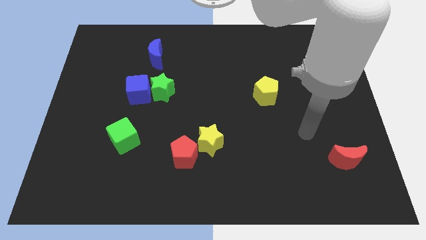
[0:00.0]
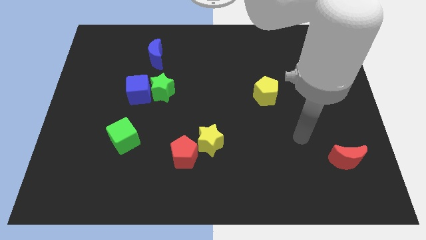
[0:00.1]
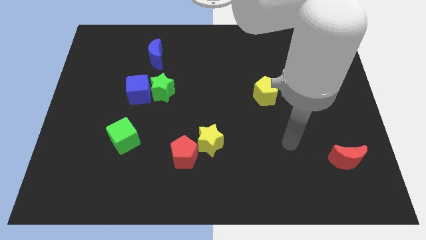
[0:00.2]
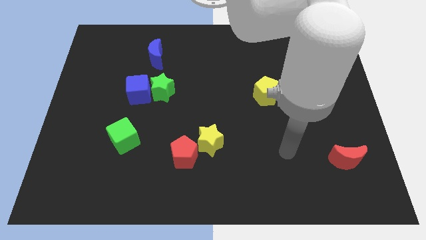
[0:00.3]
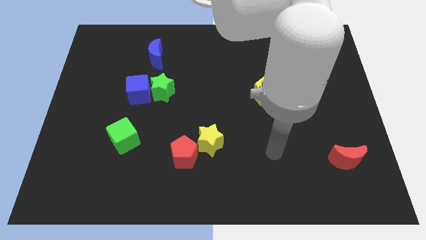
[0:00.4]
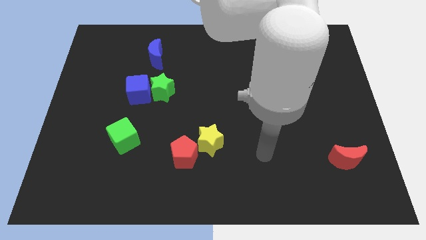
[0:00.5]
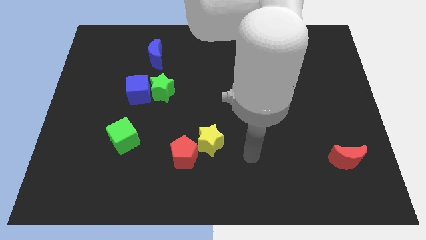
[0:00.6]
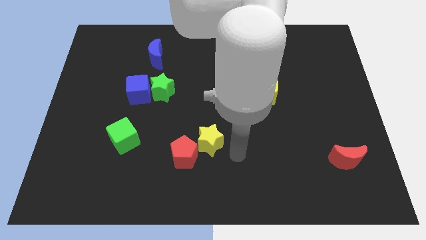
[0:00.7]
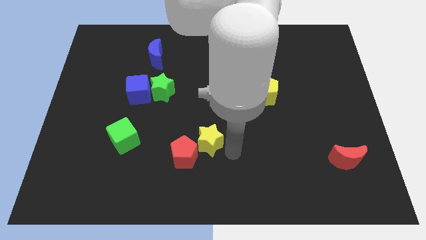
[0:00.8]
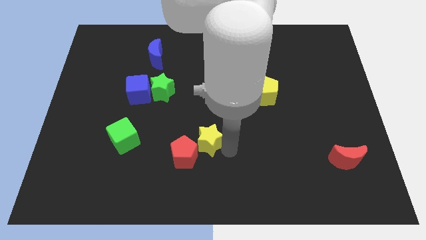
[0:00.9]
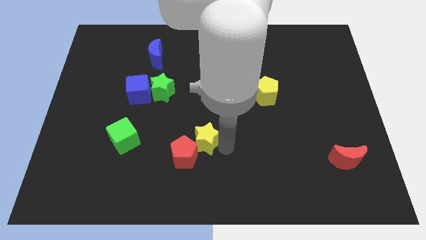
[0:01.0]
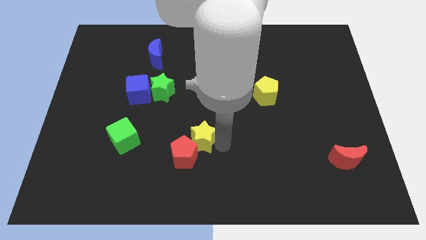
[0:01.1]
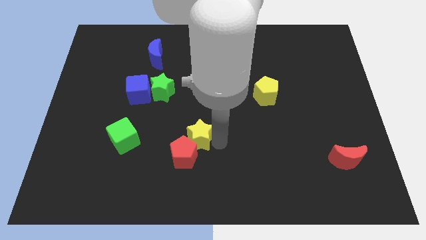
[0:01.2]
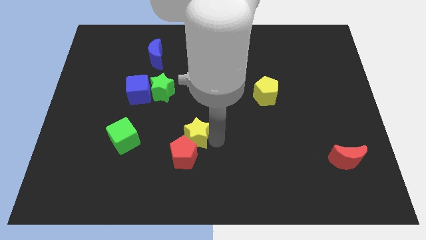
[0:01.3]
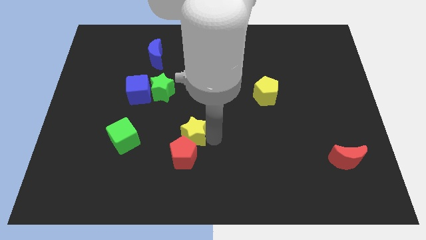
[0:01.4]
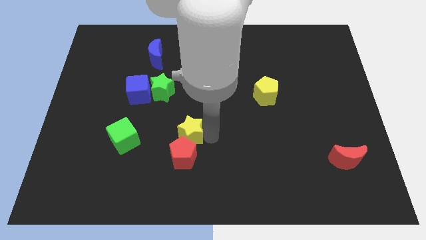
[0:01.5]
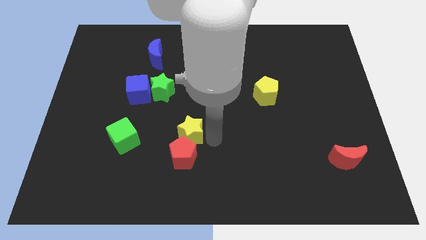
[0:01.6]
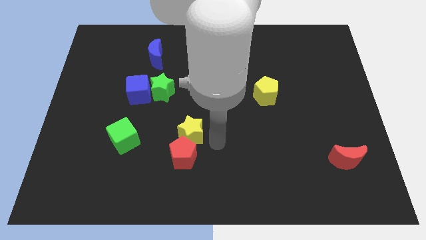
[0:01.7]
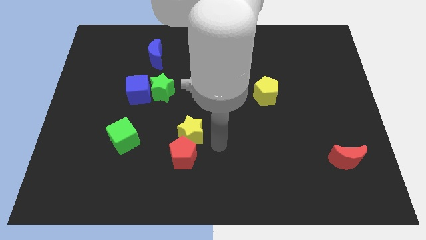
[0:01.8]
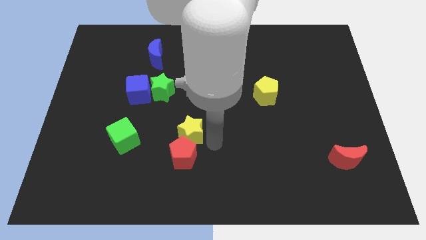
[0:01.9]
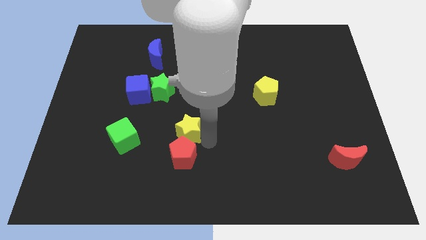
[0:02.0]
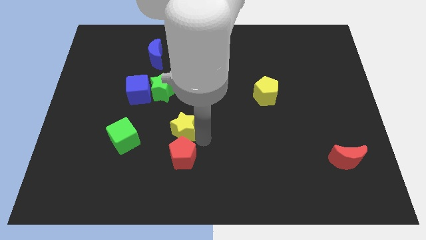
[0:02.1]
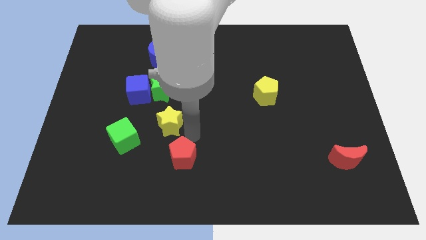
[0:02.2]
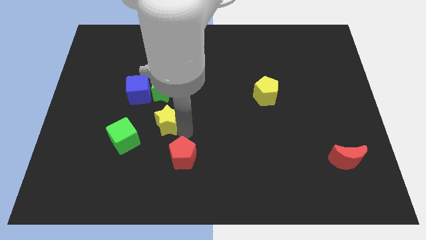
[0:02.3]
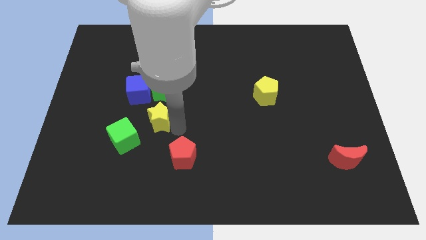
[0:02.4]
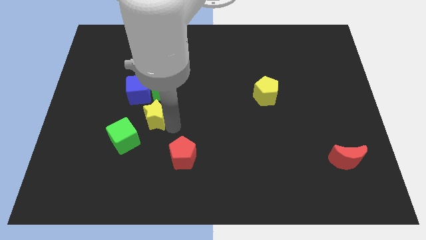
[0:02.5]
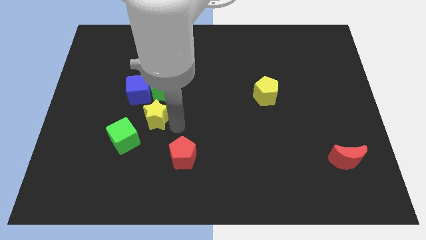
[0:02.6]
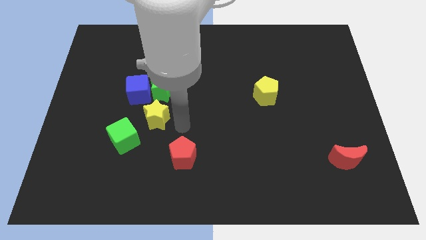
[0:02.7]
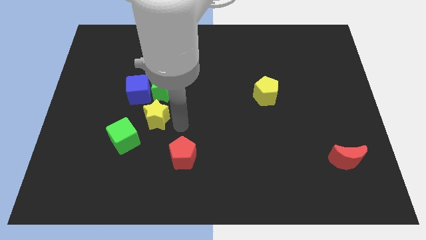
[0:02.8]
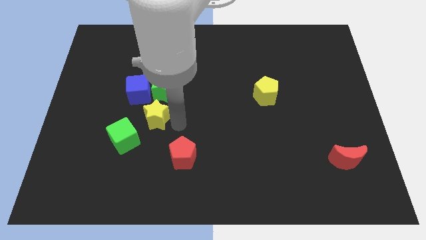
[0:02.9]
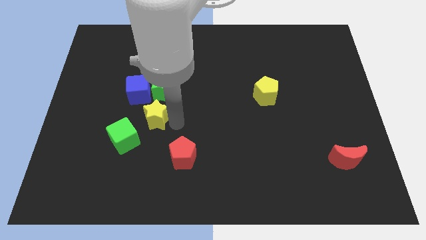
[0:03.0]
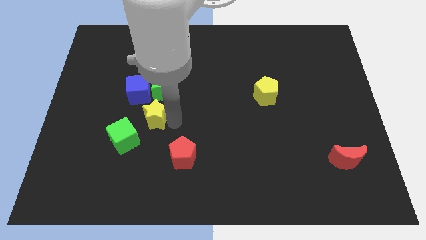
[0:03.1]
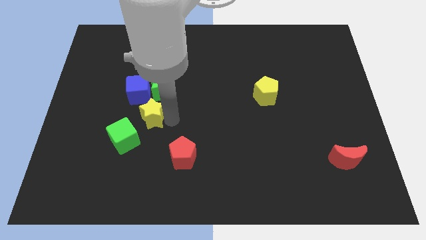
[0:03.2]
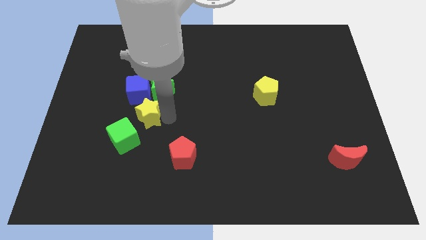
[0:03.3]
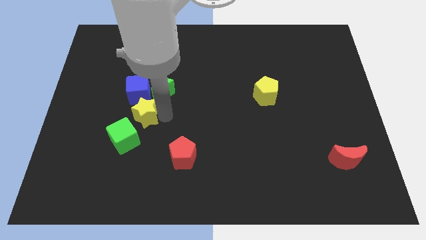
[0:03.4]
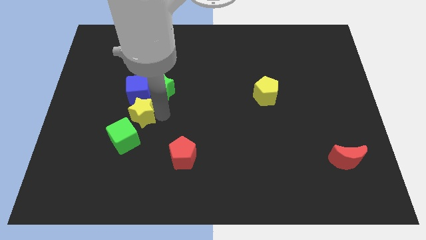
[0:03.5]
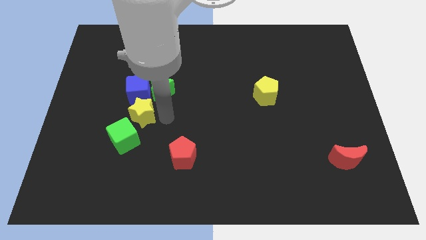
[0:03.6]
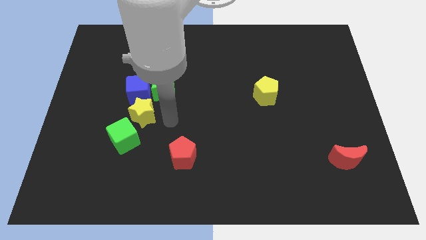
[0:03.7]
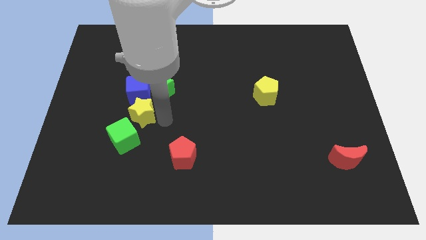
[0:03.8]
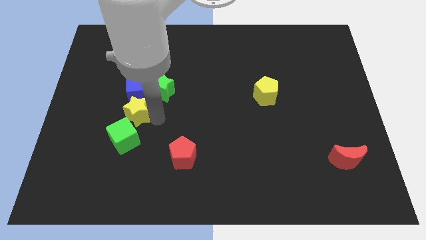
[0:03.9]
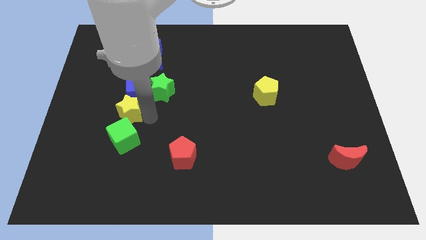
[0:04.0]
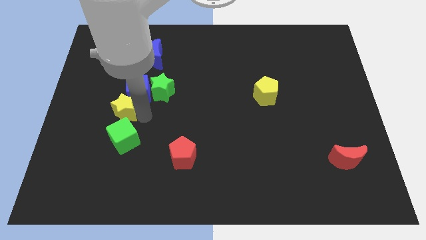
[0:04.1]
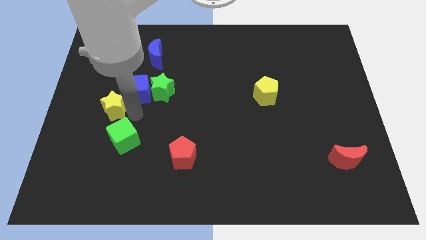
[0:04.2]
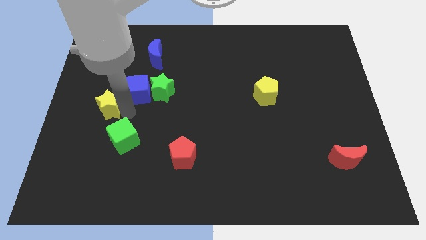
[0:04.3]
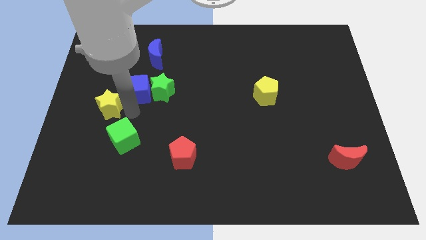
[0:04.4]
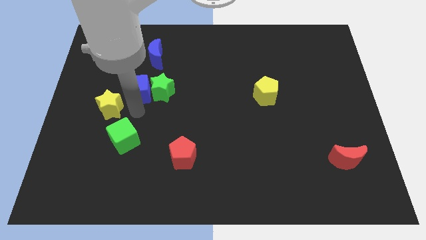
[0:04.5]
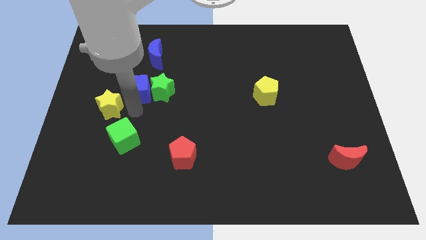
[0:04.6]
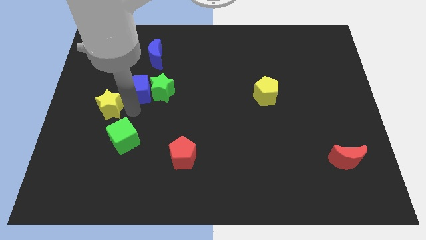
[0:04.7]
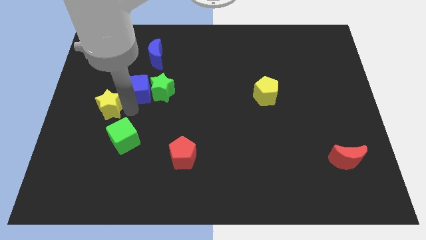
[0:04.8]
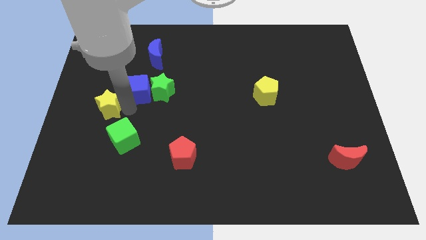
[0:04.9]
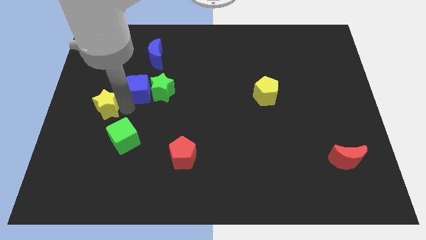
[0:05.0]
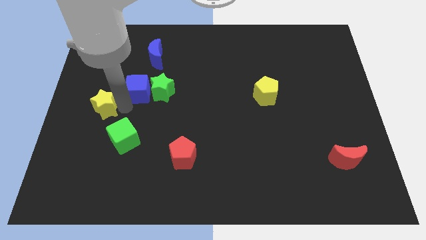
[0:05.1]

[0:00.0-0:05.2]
push the yellow star to the center left

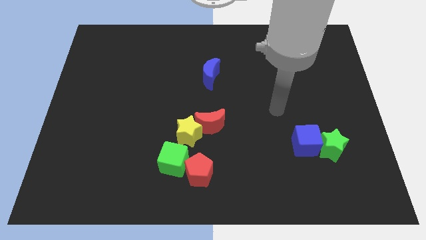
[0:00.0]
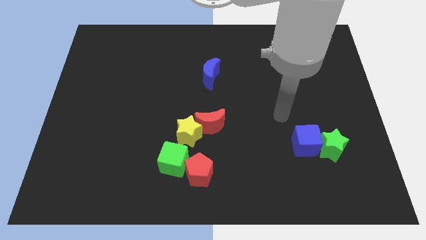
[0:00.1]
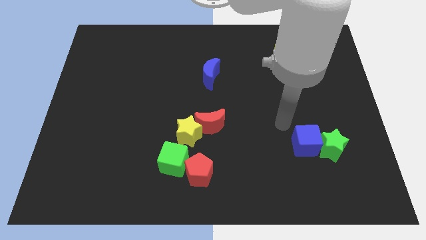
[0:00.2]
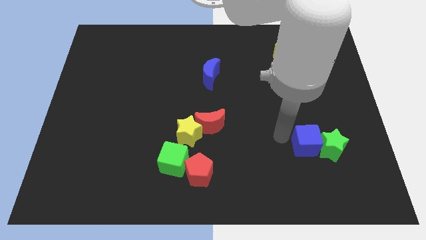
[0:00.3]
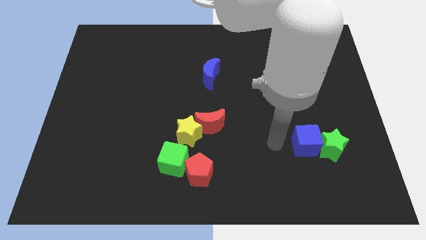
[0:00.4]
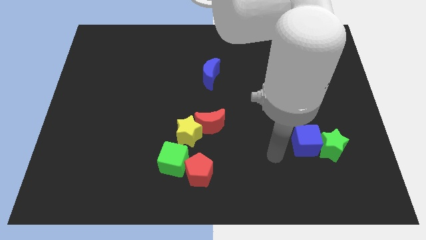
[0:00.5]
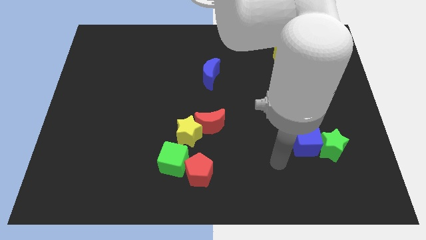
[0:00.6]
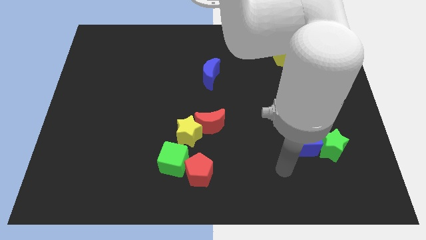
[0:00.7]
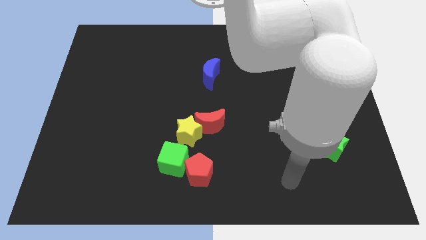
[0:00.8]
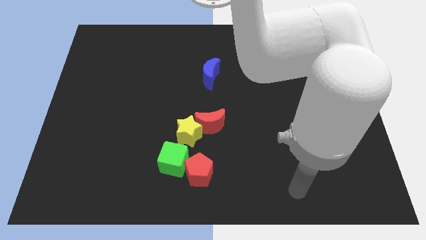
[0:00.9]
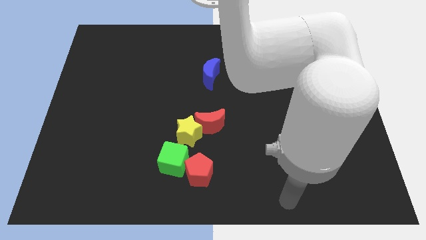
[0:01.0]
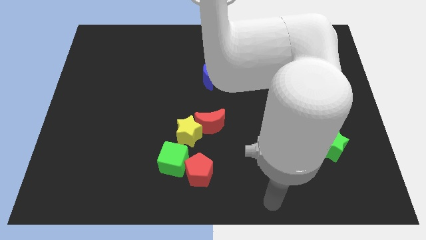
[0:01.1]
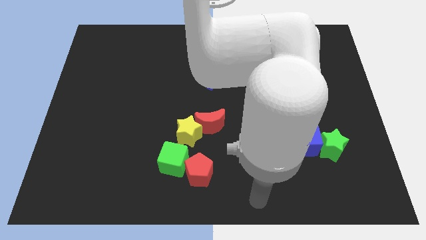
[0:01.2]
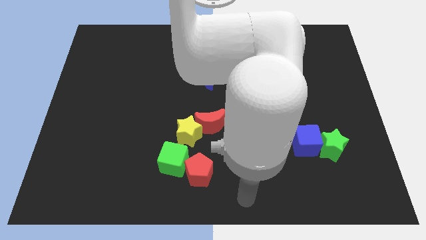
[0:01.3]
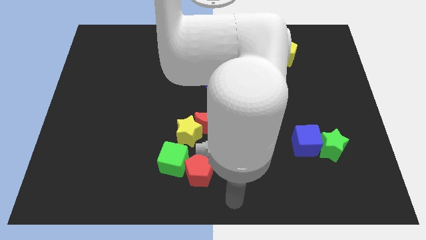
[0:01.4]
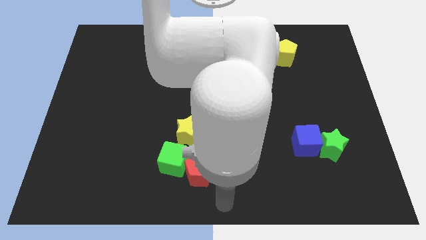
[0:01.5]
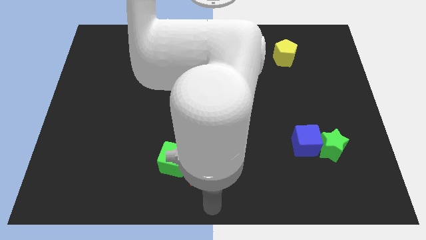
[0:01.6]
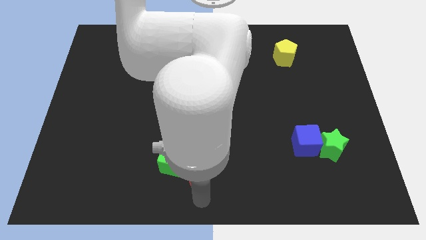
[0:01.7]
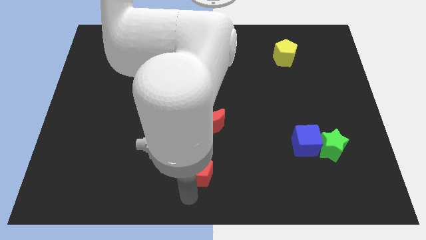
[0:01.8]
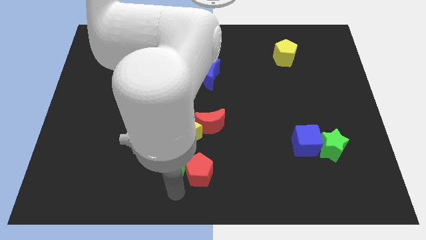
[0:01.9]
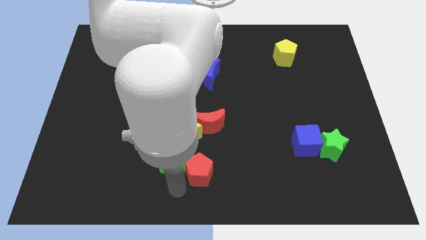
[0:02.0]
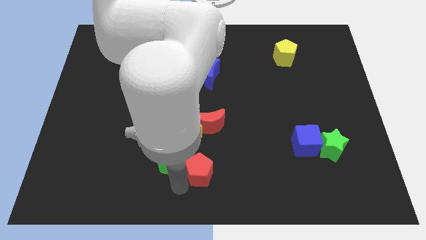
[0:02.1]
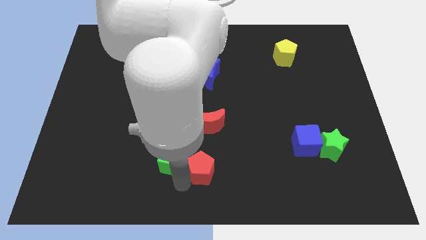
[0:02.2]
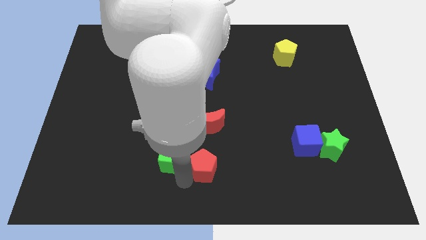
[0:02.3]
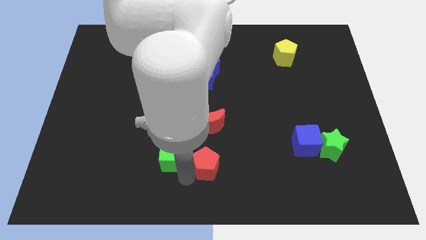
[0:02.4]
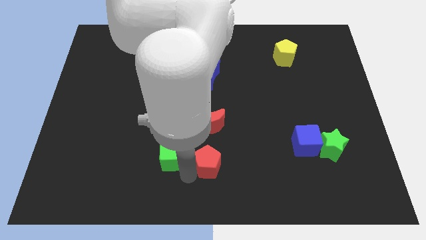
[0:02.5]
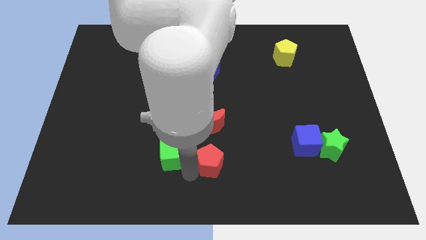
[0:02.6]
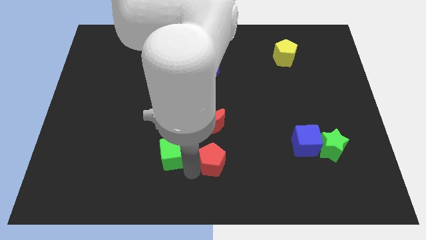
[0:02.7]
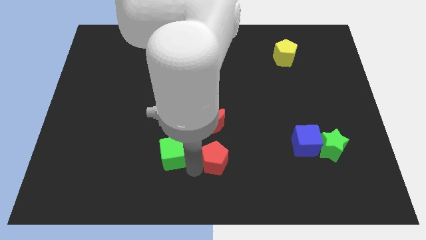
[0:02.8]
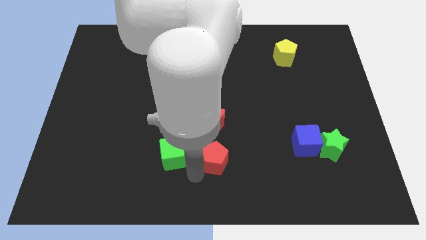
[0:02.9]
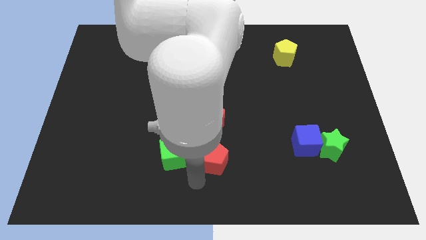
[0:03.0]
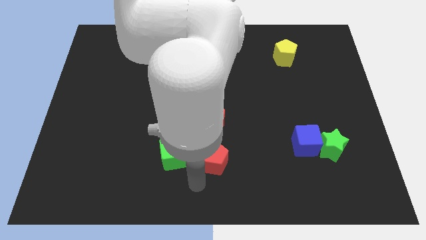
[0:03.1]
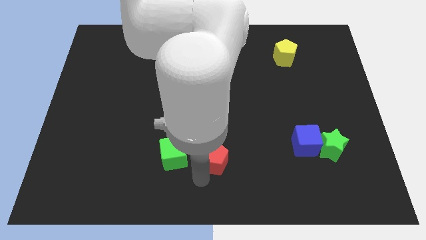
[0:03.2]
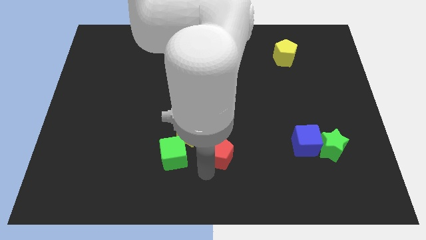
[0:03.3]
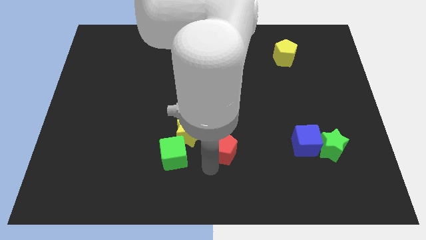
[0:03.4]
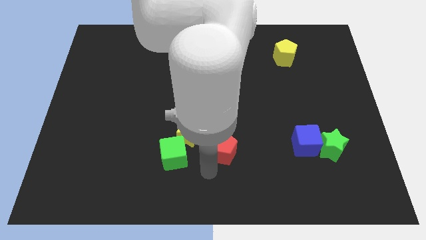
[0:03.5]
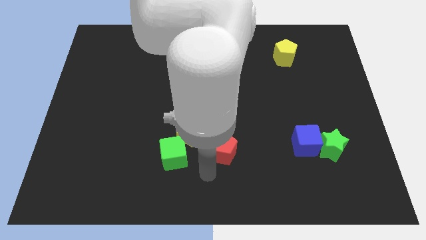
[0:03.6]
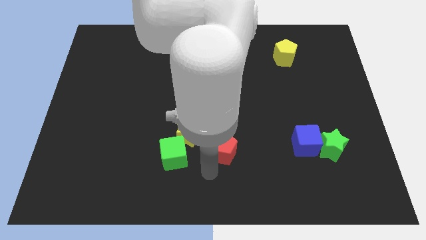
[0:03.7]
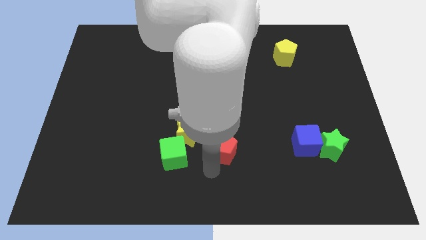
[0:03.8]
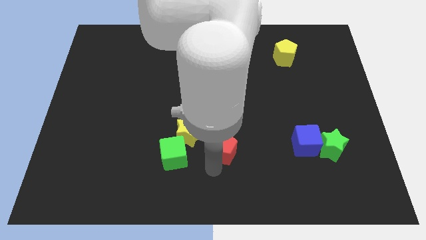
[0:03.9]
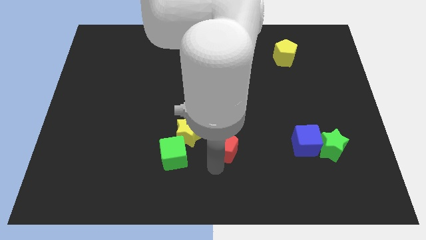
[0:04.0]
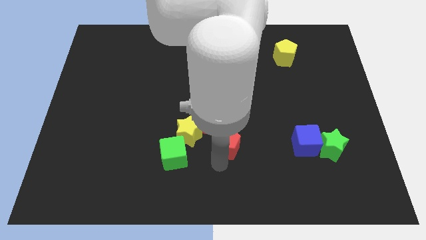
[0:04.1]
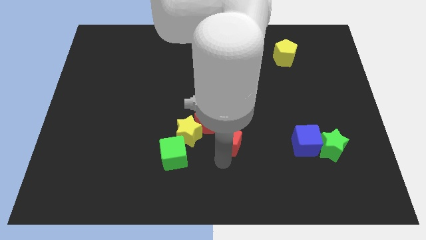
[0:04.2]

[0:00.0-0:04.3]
move the red pentagon to the center of the board
